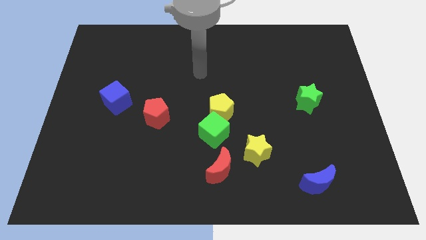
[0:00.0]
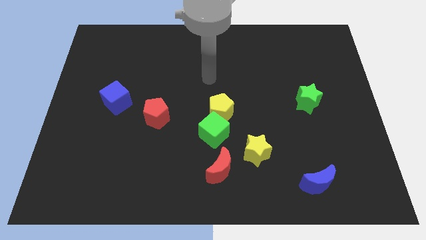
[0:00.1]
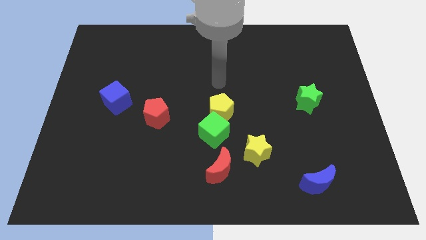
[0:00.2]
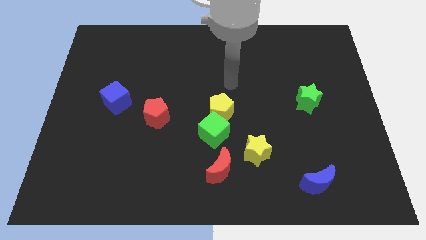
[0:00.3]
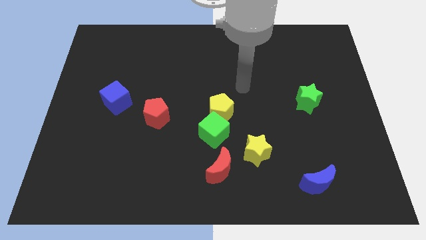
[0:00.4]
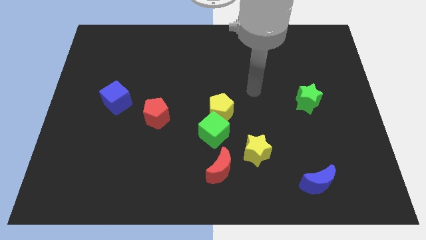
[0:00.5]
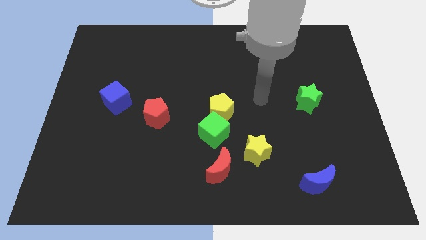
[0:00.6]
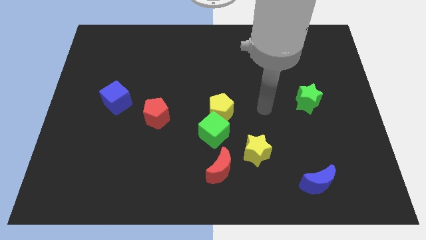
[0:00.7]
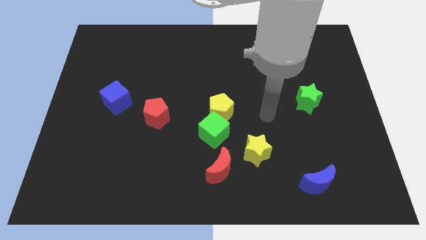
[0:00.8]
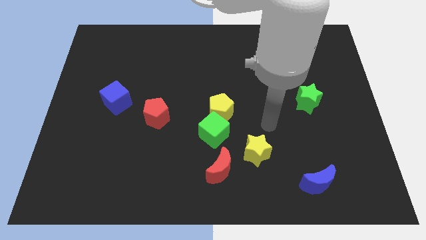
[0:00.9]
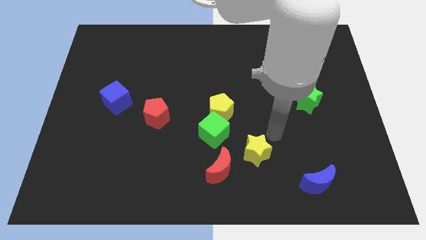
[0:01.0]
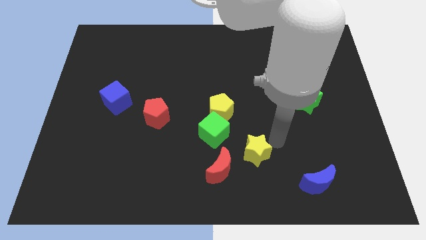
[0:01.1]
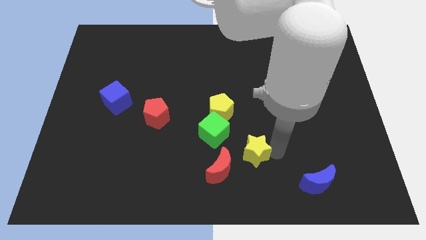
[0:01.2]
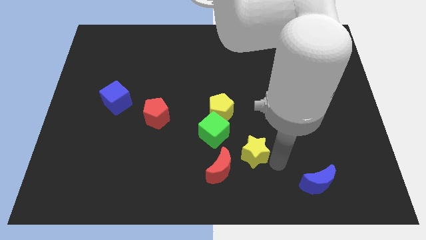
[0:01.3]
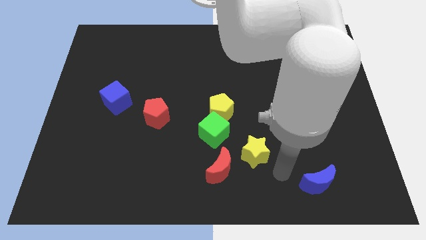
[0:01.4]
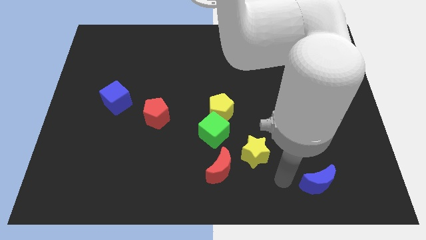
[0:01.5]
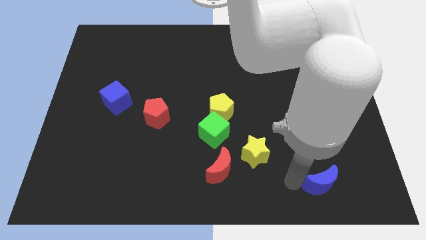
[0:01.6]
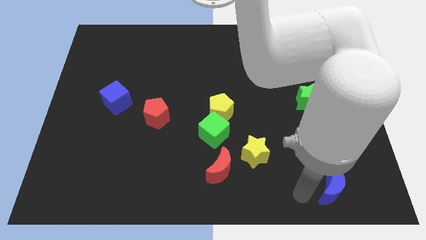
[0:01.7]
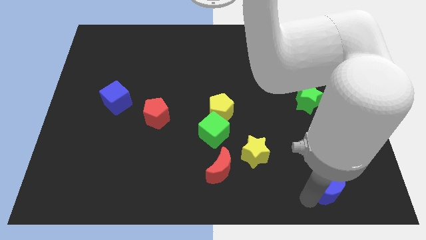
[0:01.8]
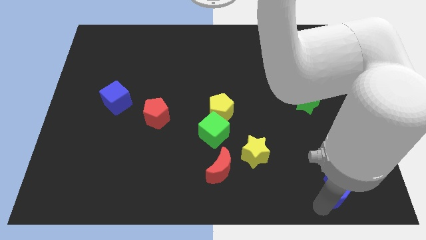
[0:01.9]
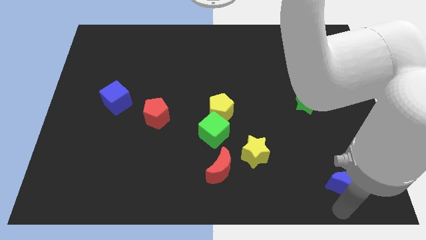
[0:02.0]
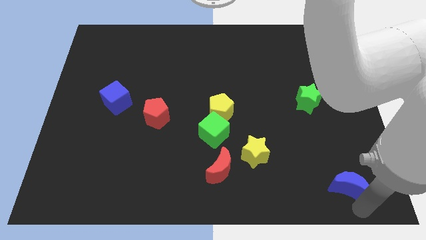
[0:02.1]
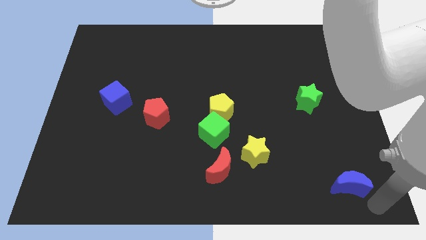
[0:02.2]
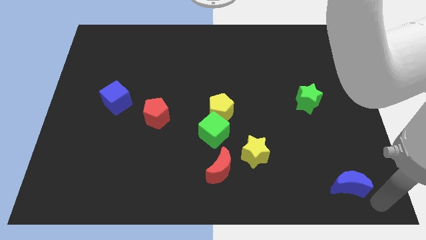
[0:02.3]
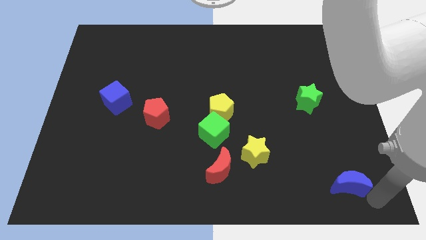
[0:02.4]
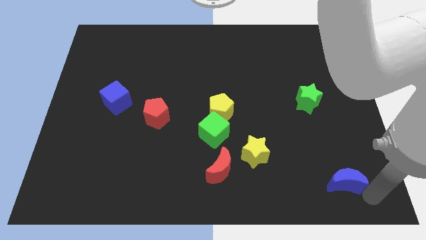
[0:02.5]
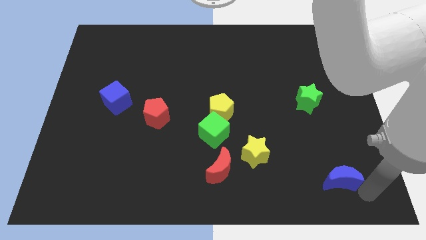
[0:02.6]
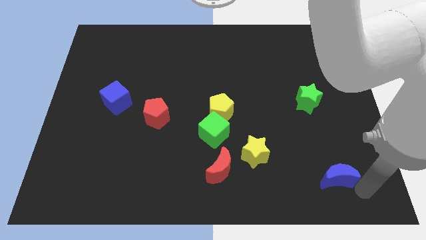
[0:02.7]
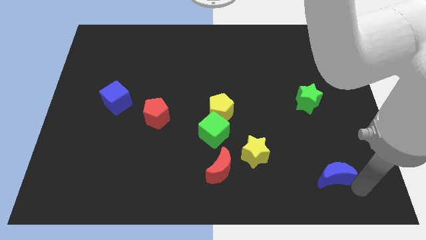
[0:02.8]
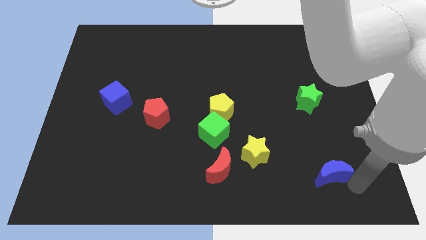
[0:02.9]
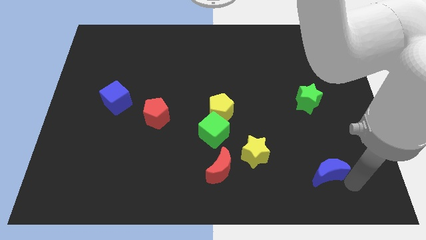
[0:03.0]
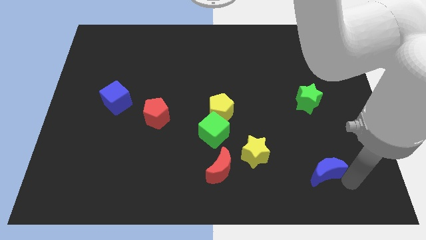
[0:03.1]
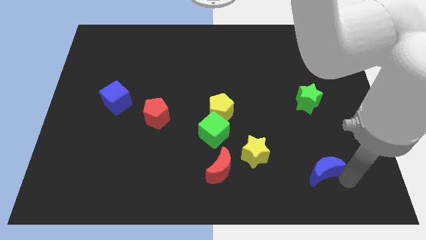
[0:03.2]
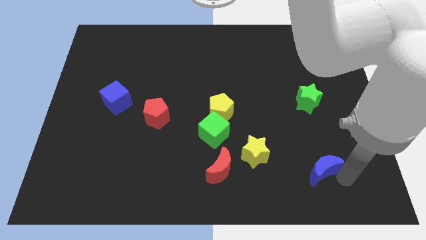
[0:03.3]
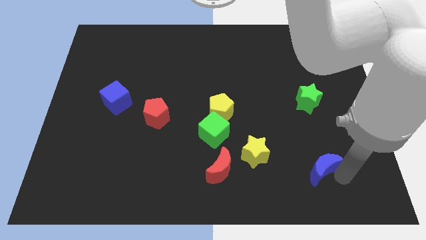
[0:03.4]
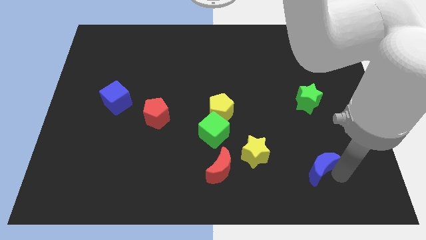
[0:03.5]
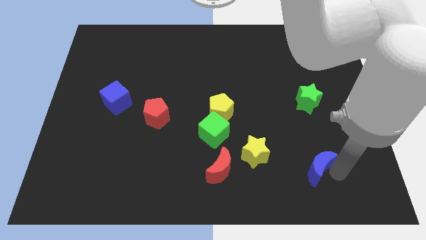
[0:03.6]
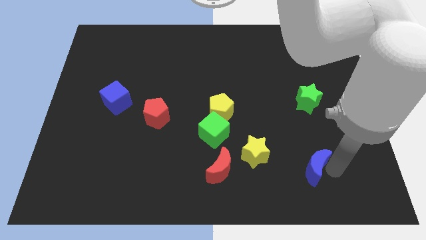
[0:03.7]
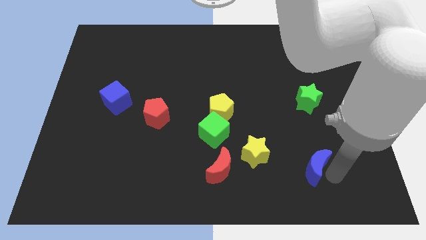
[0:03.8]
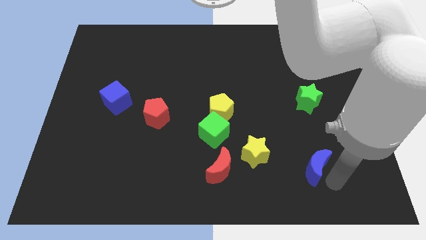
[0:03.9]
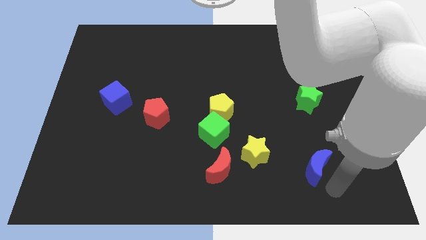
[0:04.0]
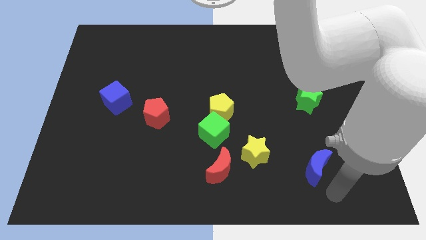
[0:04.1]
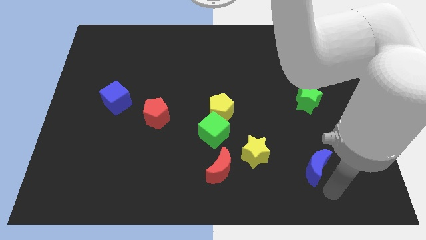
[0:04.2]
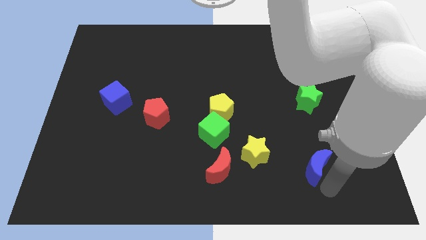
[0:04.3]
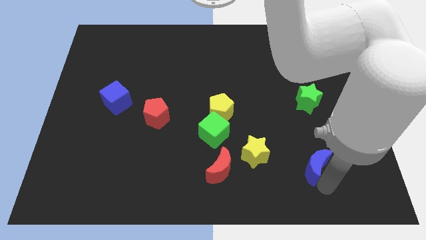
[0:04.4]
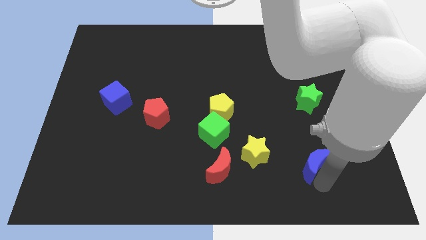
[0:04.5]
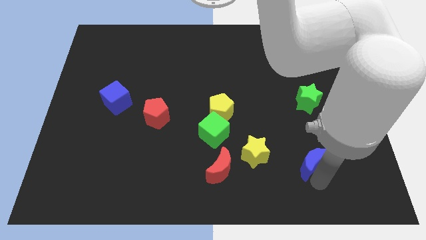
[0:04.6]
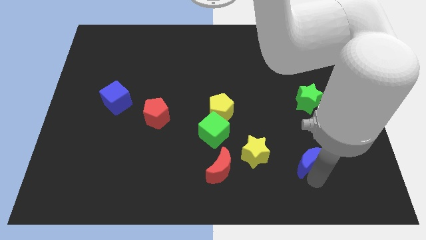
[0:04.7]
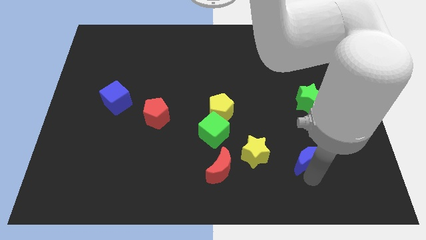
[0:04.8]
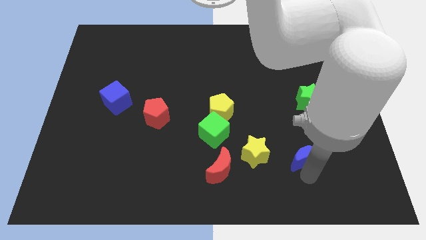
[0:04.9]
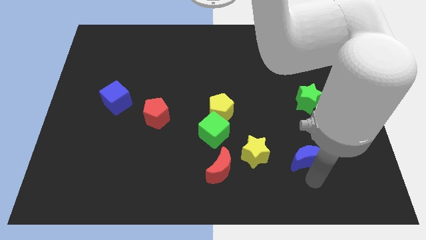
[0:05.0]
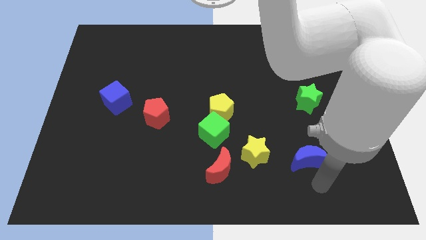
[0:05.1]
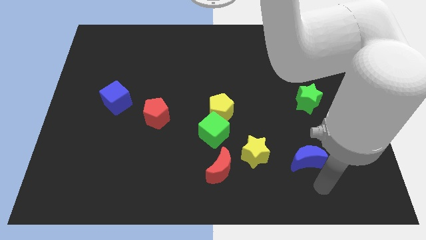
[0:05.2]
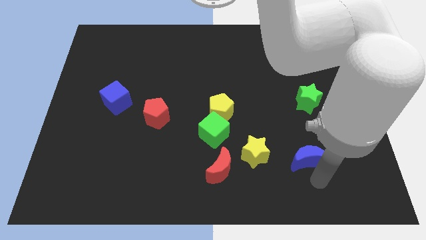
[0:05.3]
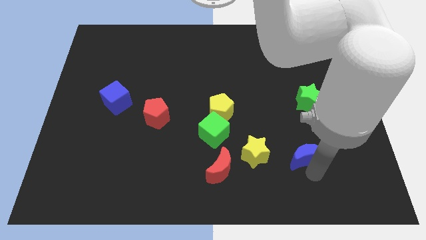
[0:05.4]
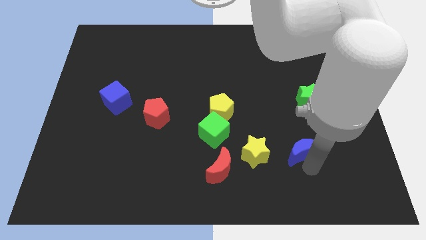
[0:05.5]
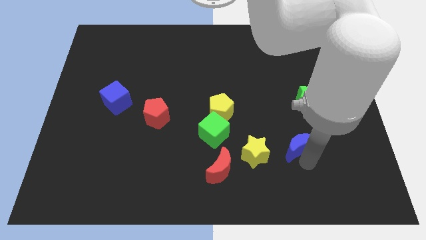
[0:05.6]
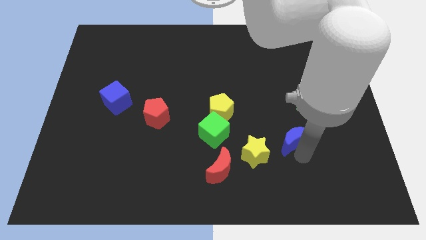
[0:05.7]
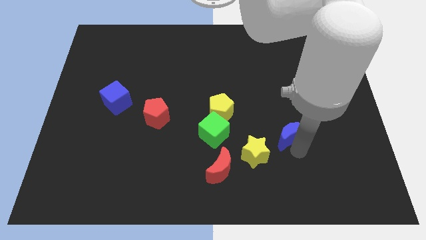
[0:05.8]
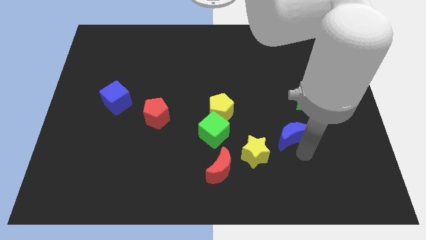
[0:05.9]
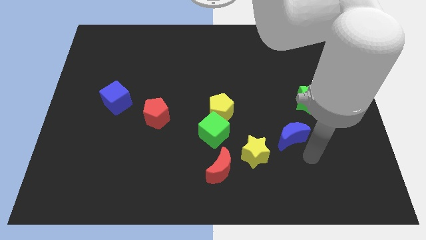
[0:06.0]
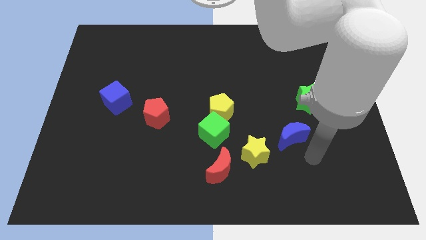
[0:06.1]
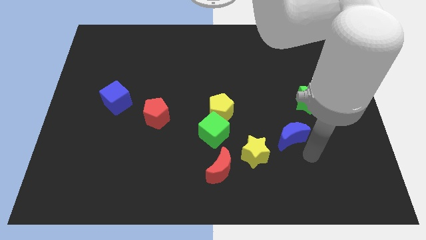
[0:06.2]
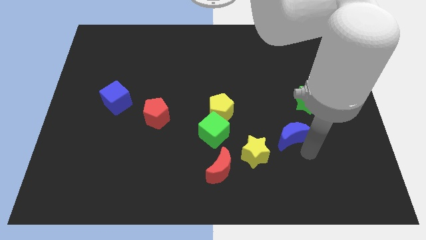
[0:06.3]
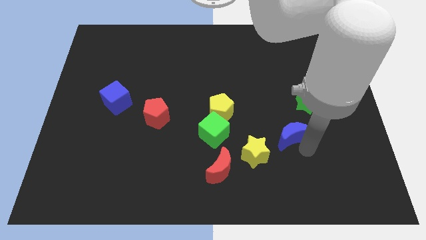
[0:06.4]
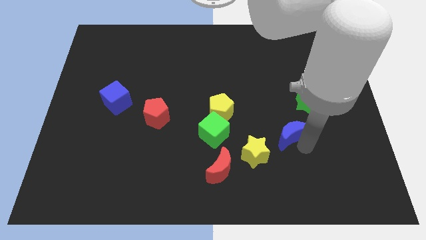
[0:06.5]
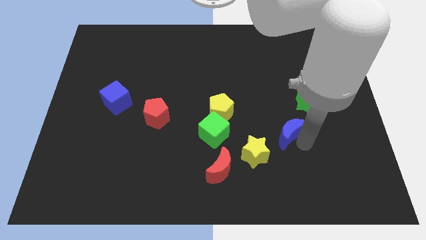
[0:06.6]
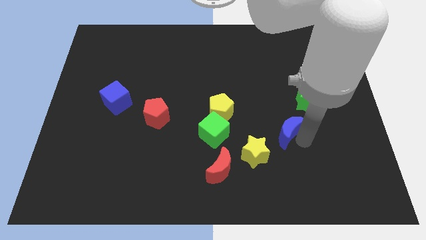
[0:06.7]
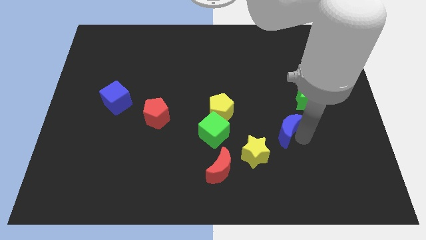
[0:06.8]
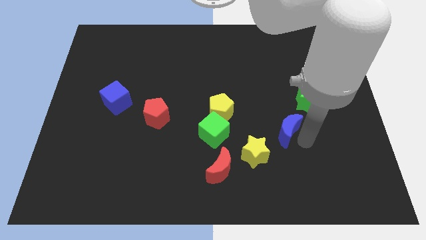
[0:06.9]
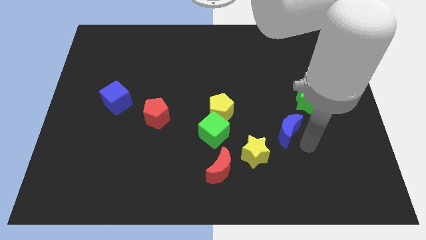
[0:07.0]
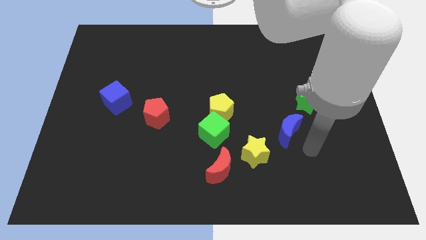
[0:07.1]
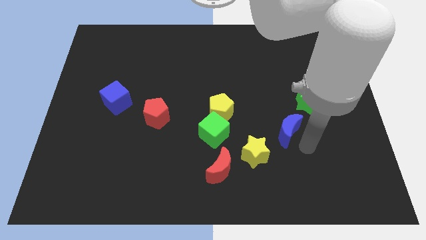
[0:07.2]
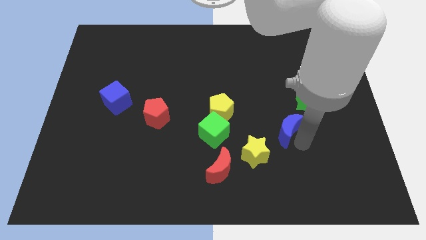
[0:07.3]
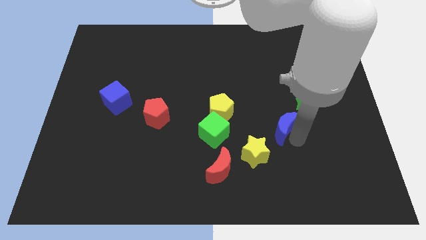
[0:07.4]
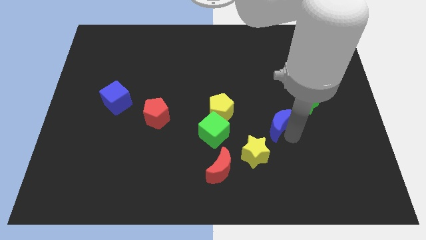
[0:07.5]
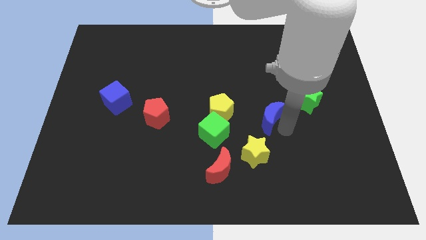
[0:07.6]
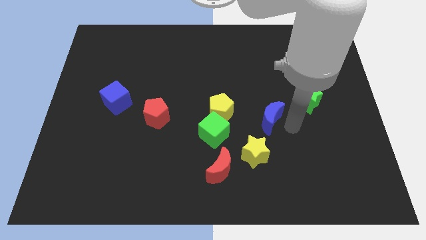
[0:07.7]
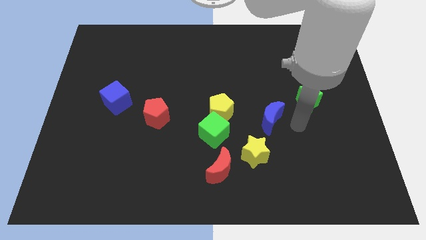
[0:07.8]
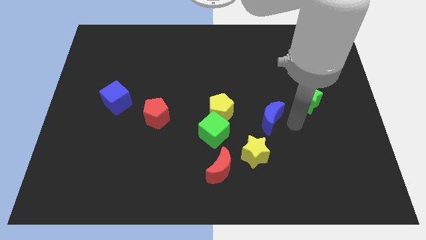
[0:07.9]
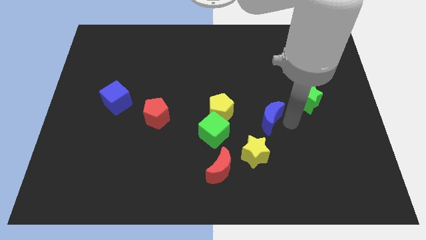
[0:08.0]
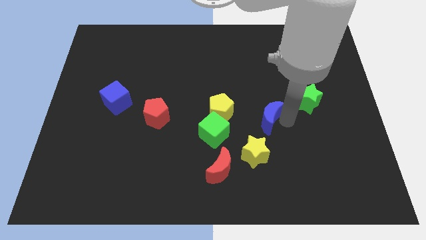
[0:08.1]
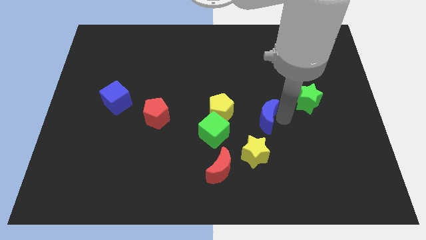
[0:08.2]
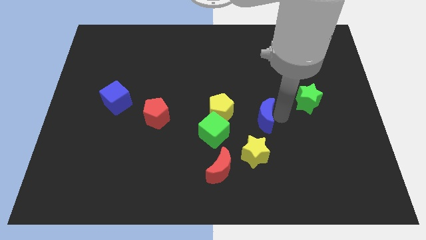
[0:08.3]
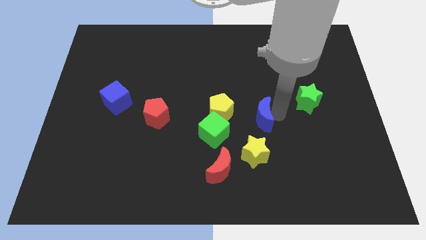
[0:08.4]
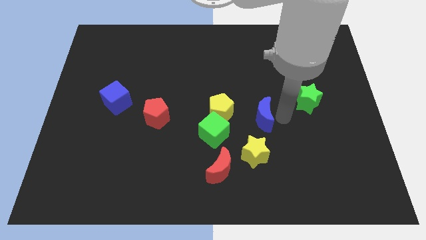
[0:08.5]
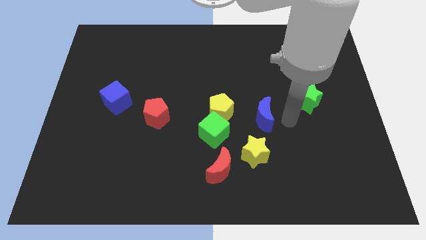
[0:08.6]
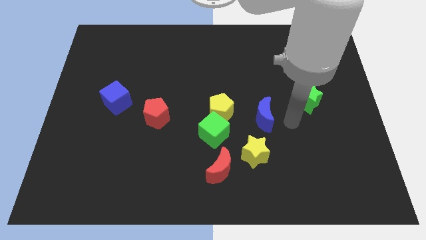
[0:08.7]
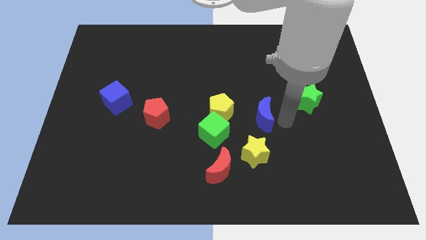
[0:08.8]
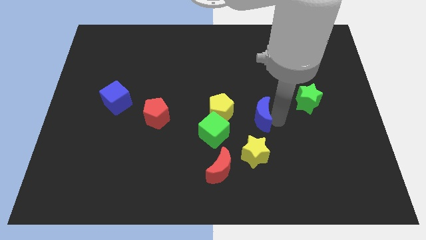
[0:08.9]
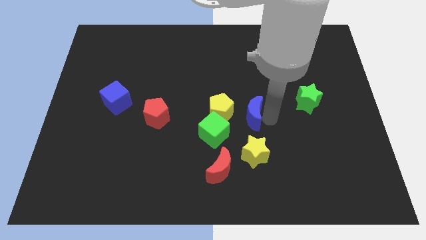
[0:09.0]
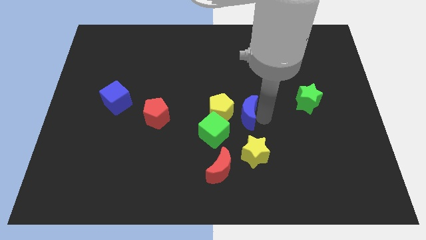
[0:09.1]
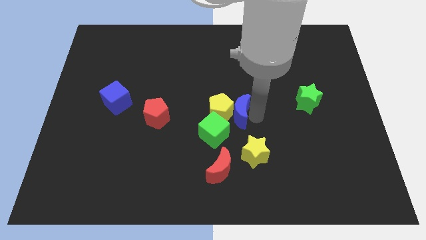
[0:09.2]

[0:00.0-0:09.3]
put the blue moon close to the yellow pentagon
